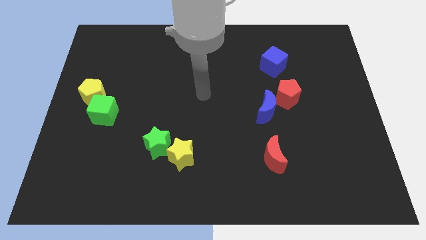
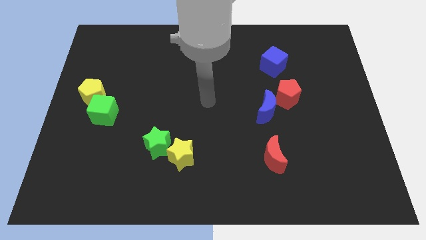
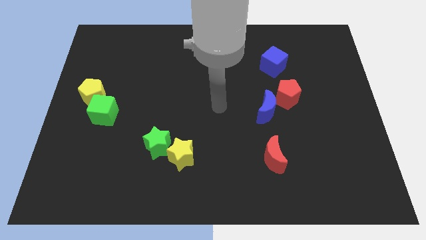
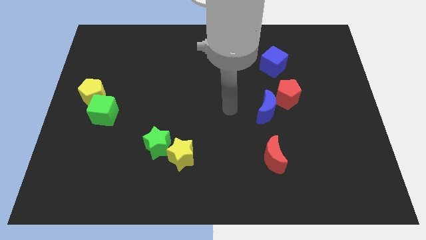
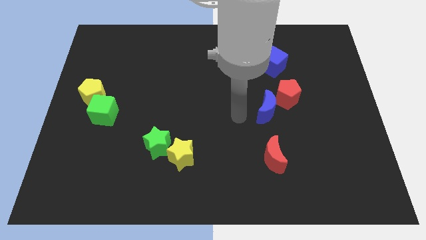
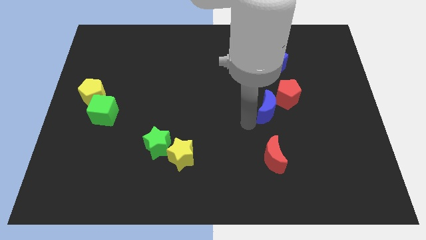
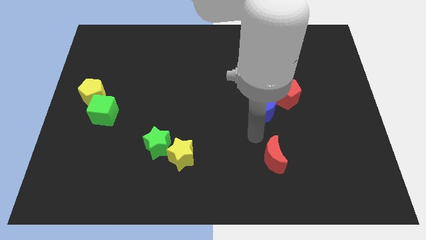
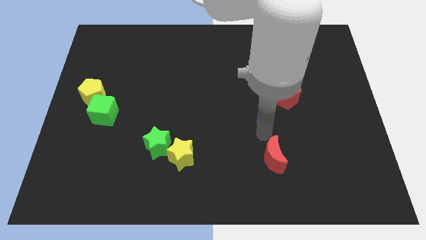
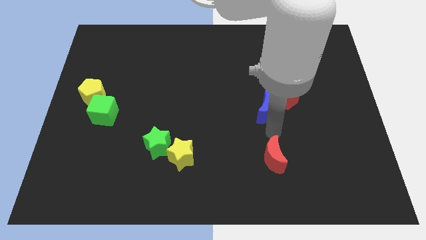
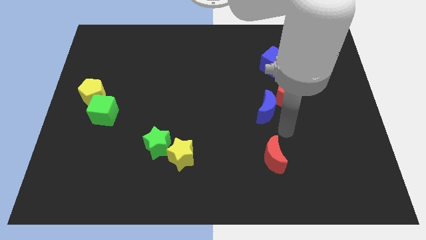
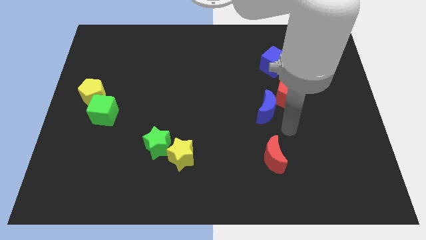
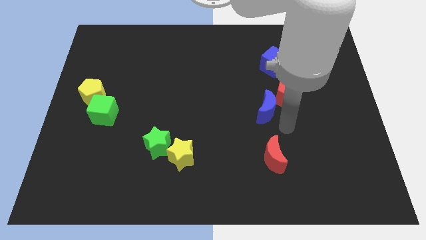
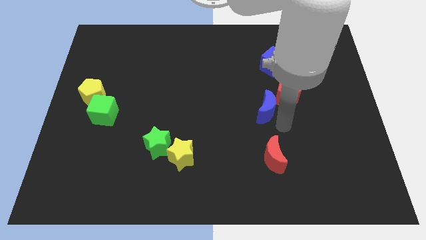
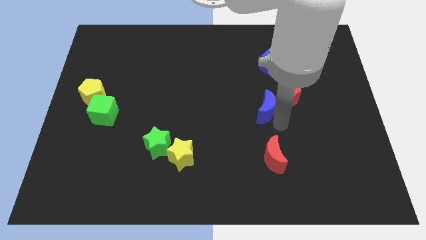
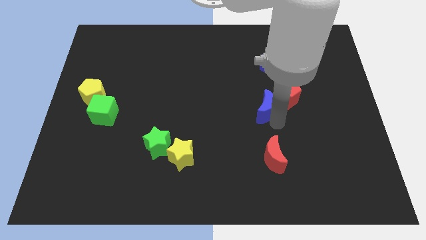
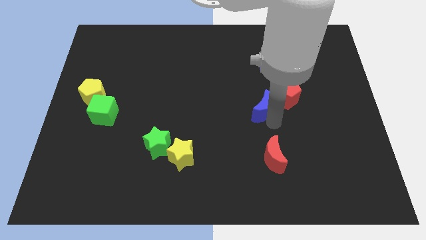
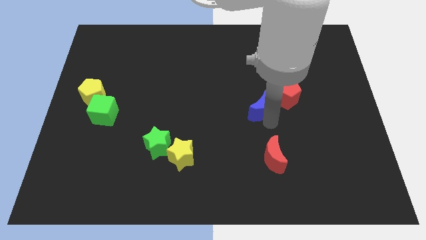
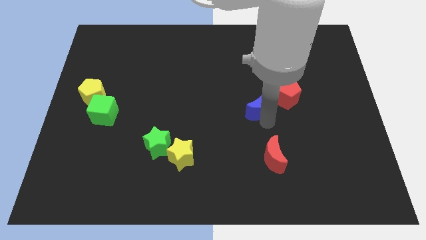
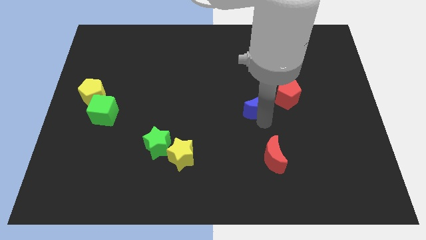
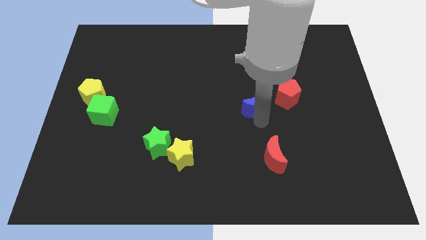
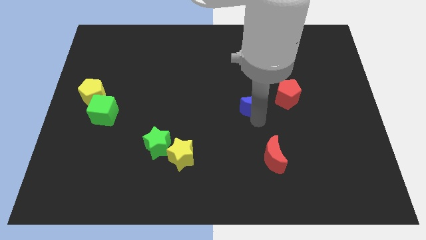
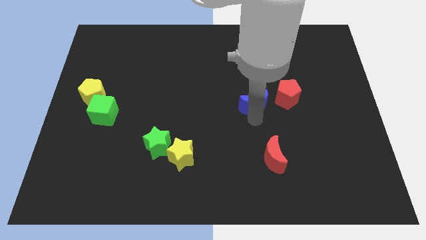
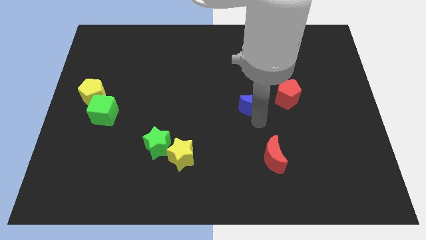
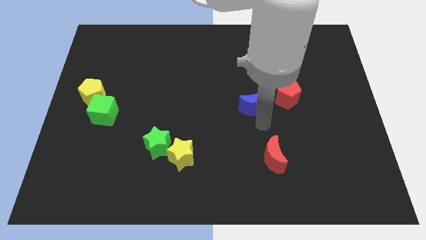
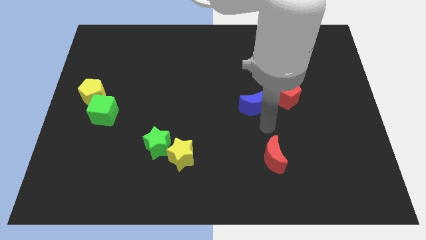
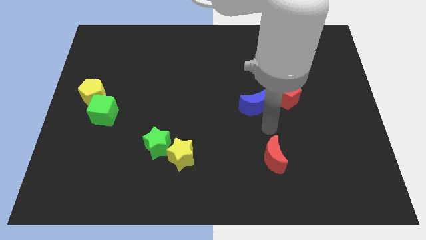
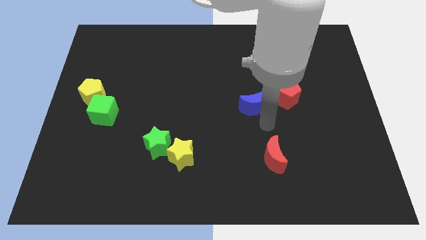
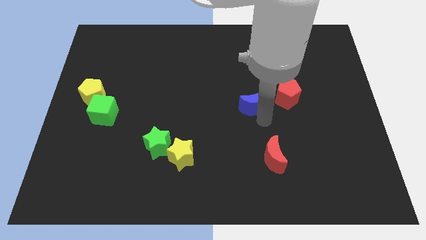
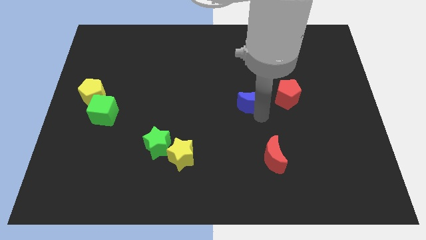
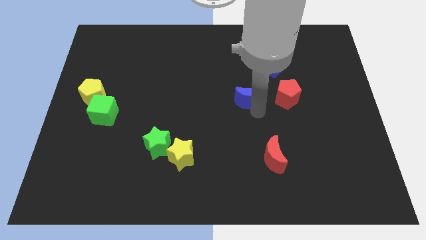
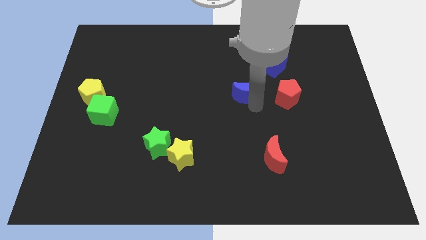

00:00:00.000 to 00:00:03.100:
move the blue moon somewhat upwards and then to the left

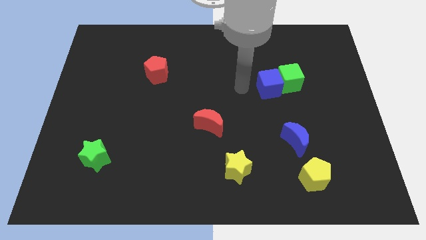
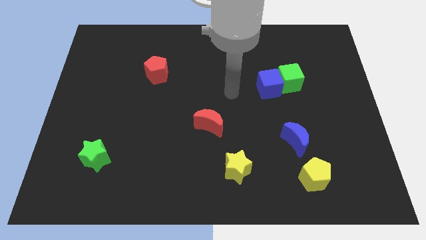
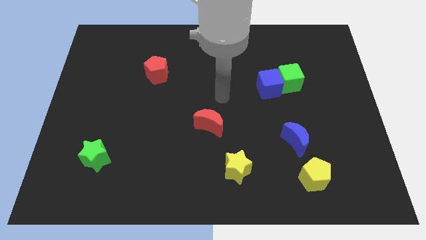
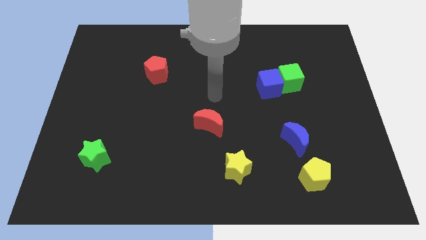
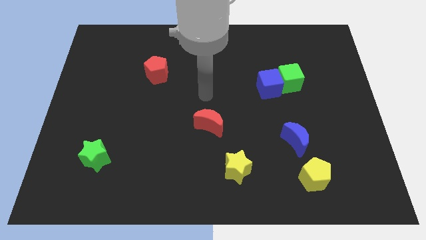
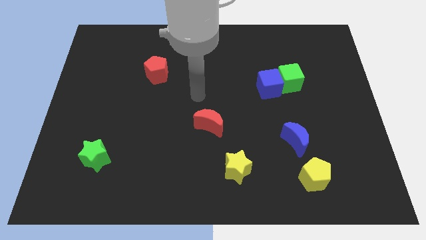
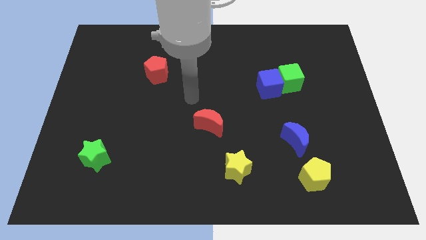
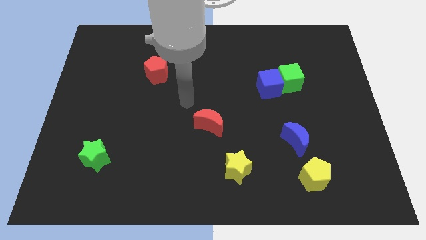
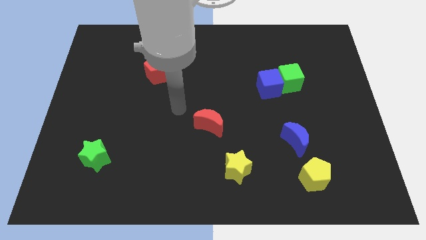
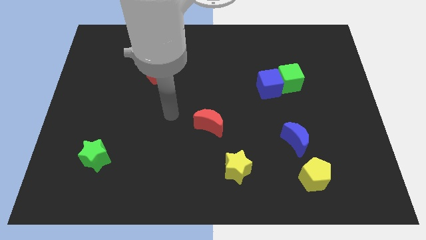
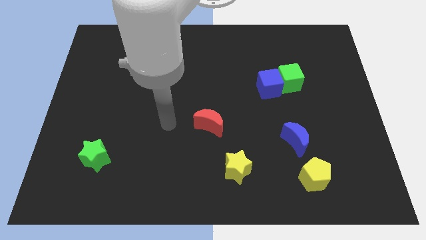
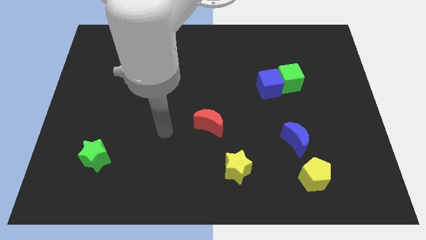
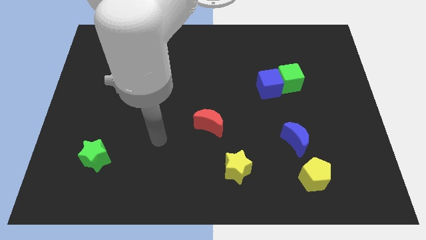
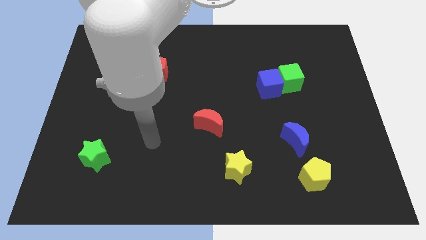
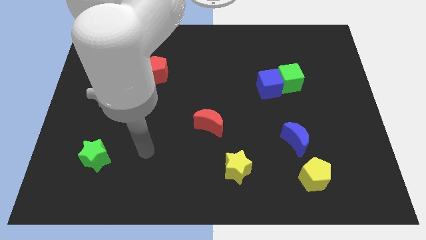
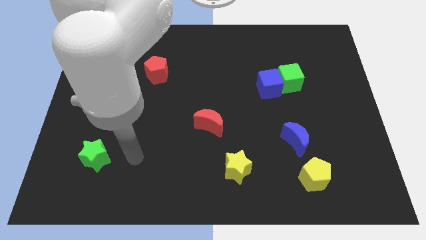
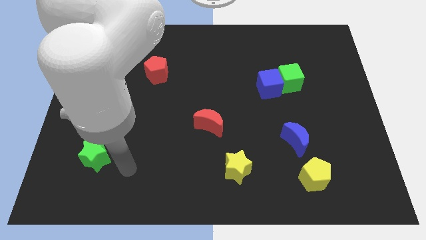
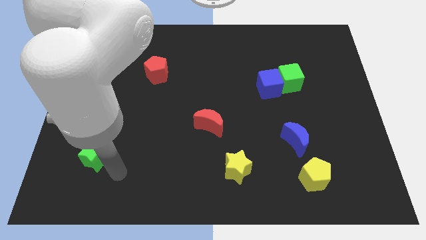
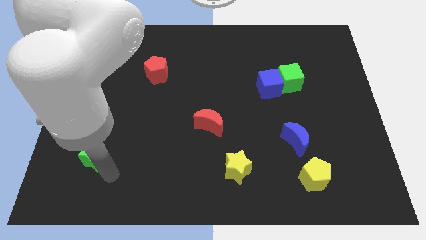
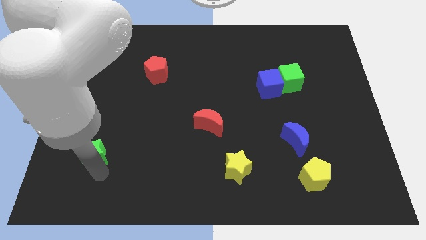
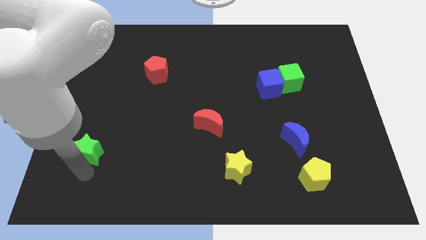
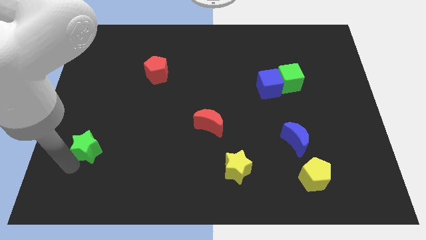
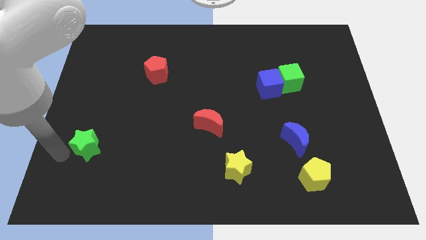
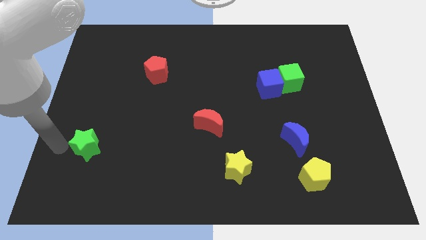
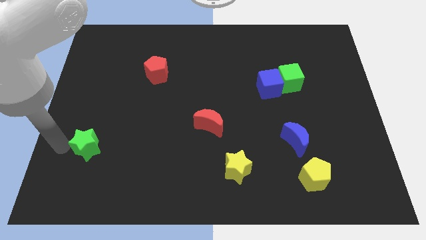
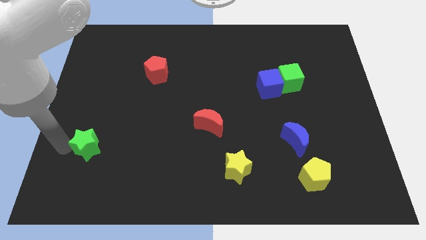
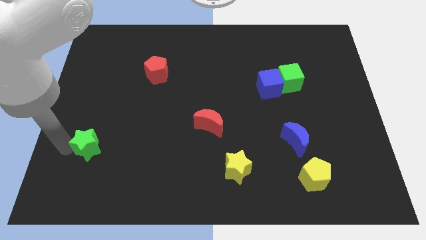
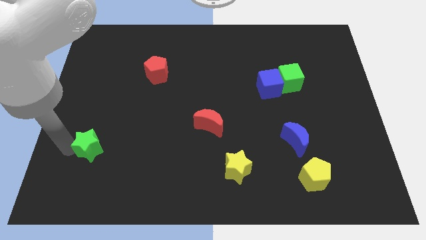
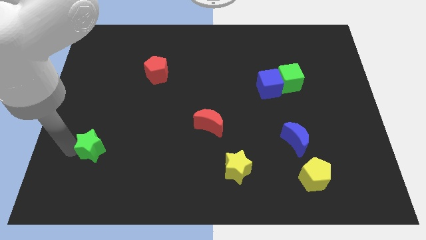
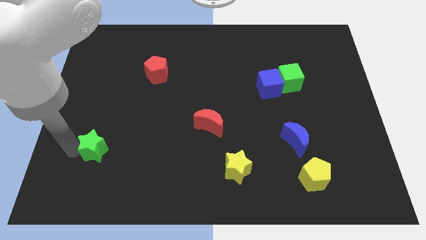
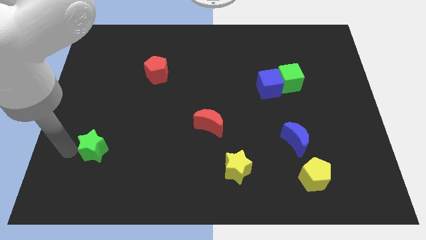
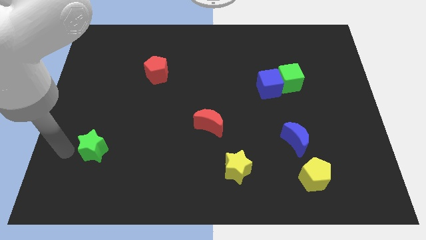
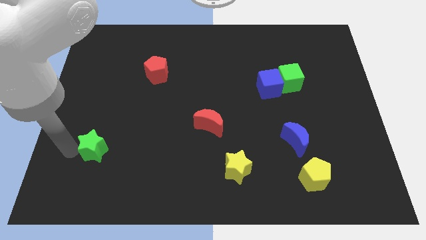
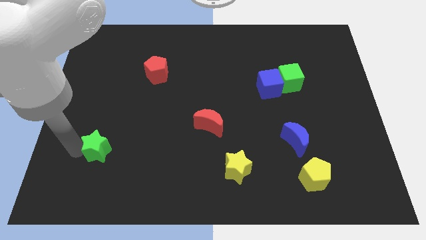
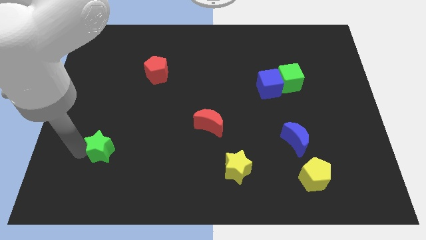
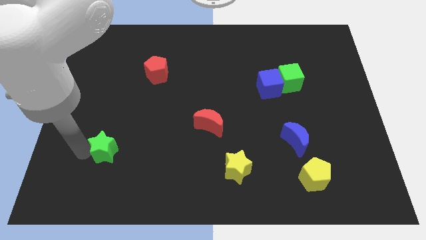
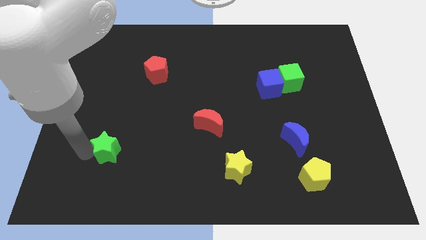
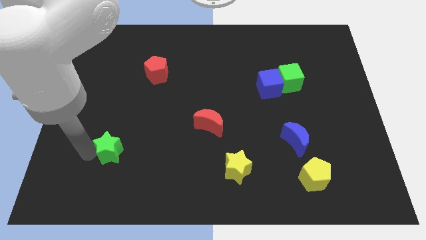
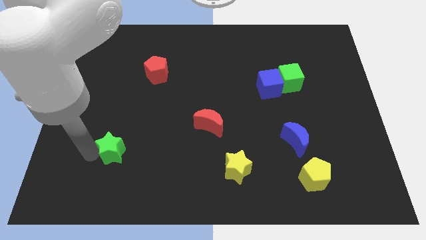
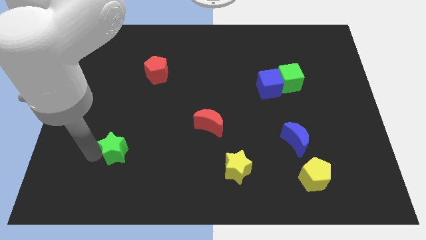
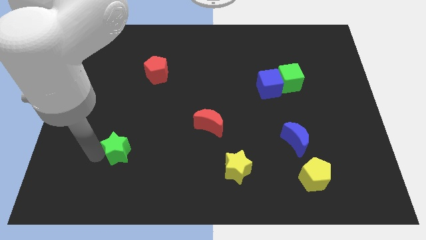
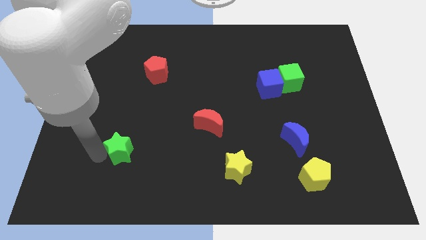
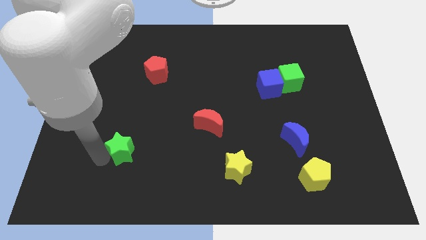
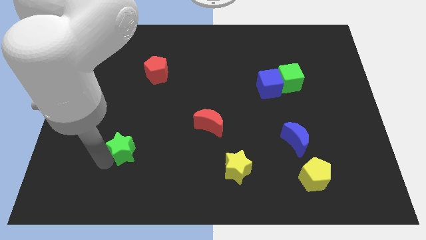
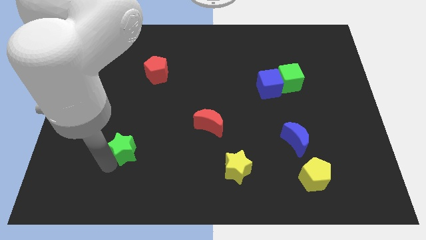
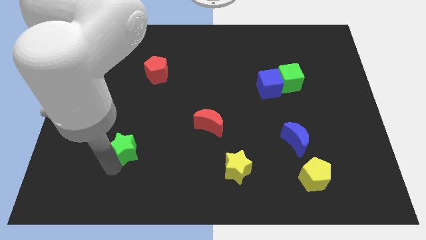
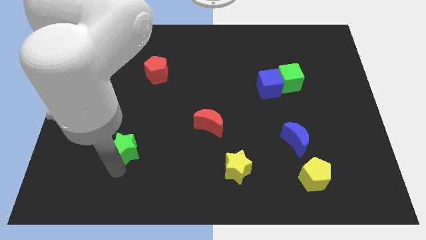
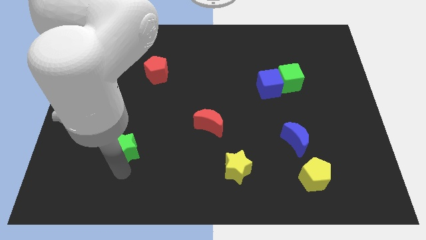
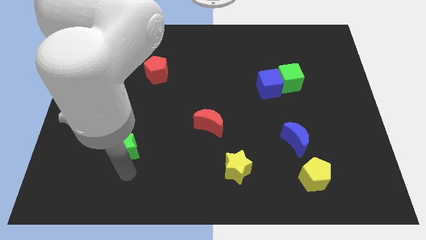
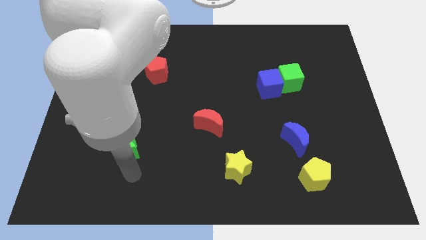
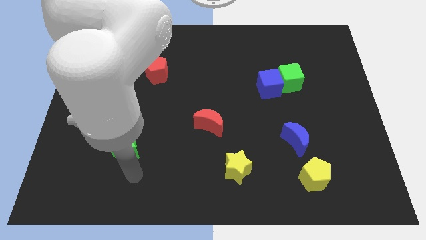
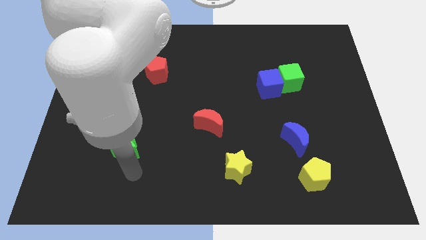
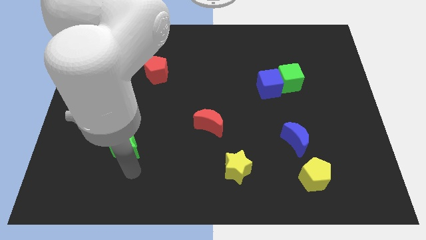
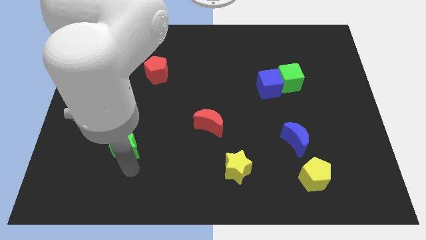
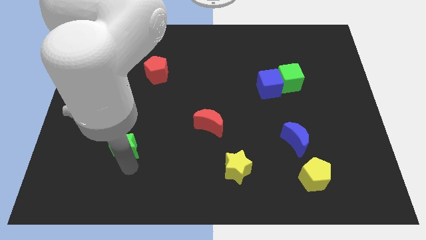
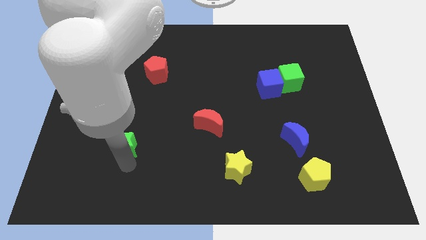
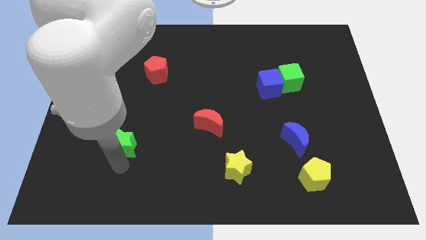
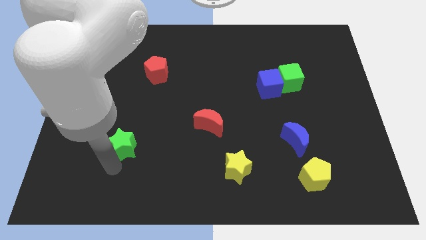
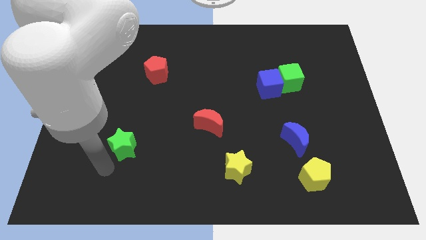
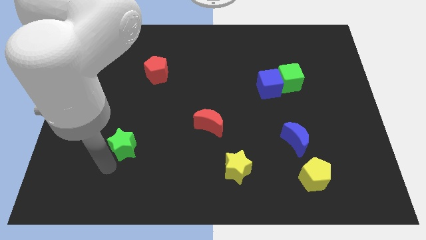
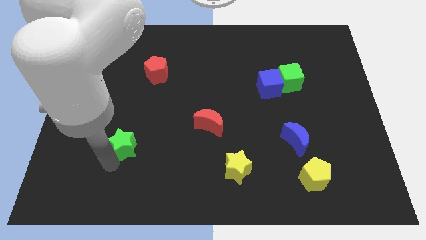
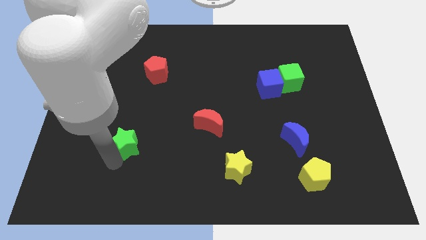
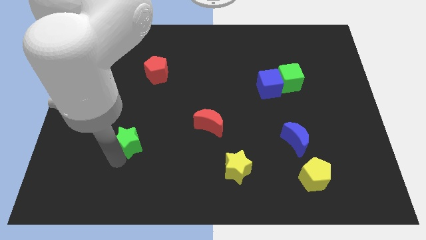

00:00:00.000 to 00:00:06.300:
push the green star slightly up and right diagonally
